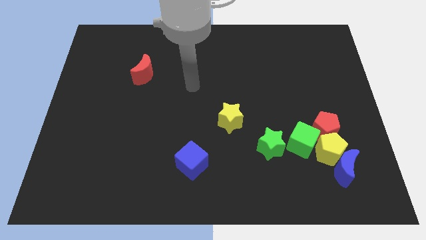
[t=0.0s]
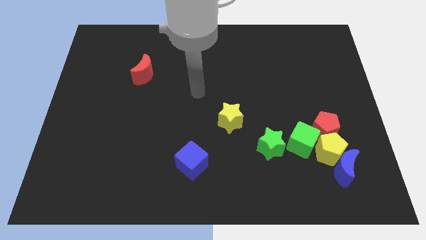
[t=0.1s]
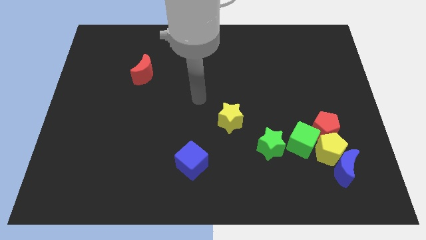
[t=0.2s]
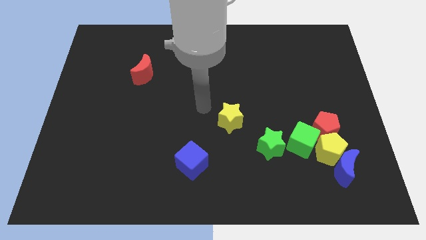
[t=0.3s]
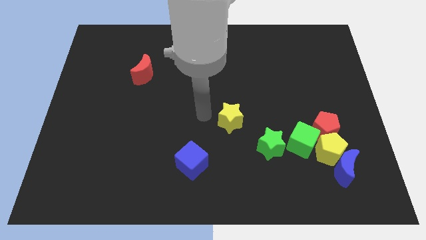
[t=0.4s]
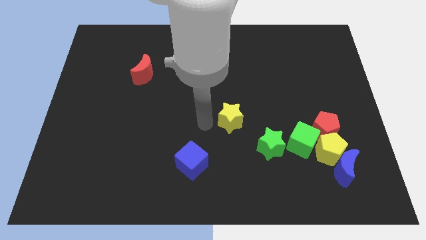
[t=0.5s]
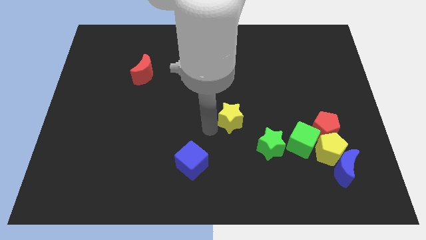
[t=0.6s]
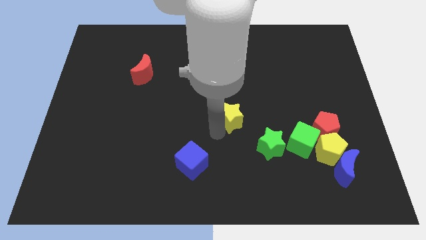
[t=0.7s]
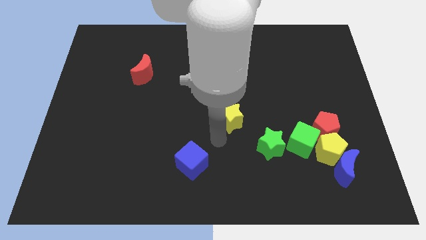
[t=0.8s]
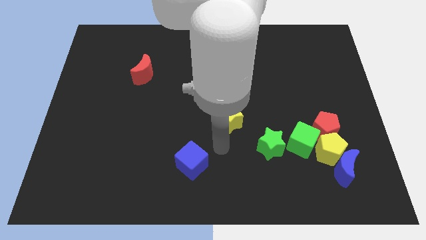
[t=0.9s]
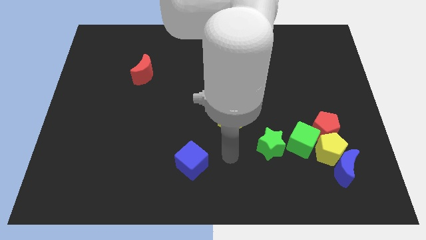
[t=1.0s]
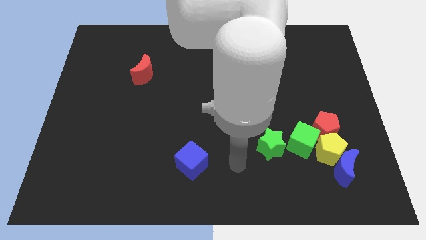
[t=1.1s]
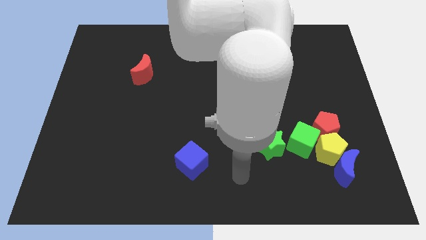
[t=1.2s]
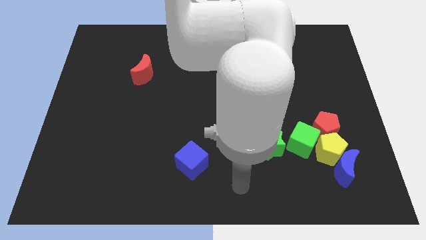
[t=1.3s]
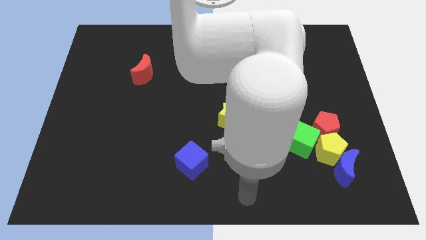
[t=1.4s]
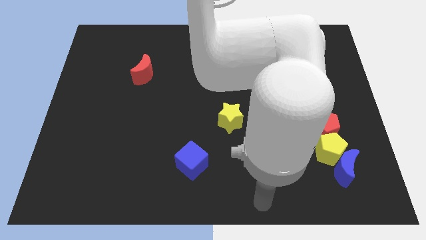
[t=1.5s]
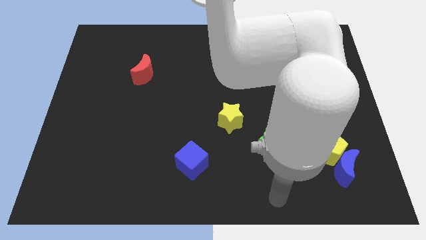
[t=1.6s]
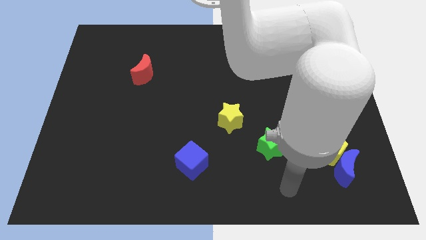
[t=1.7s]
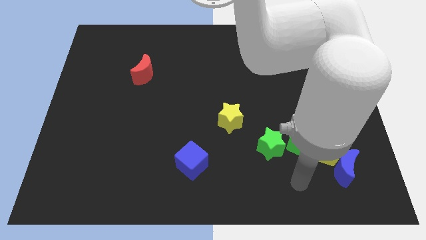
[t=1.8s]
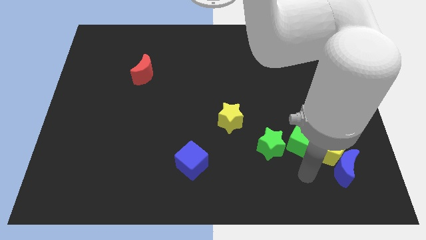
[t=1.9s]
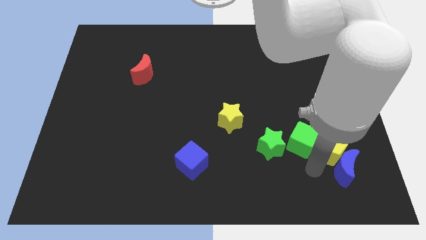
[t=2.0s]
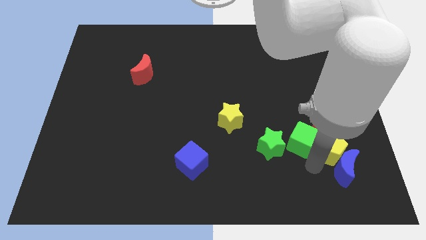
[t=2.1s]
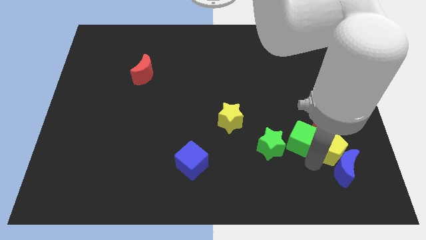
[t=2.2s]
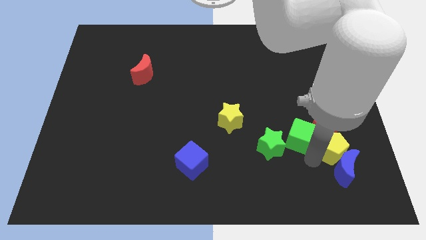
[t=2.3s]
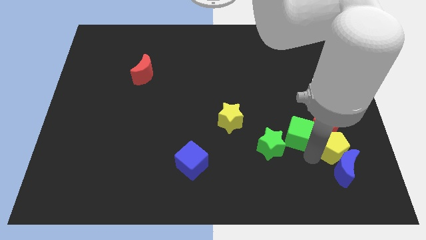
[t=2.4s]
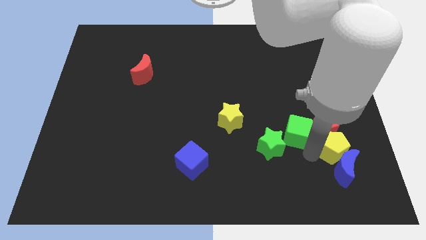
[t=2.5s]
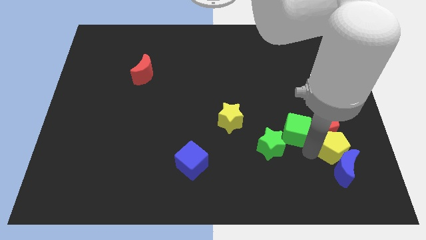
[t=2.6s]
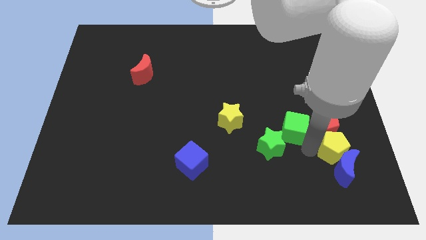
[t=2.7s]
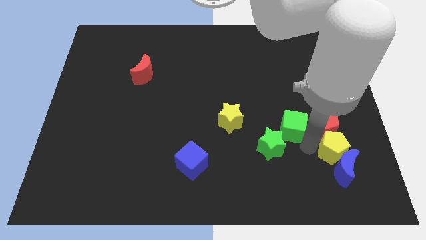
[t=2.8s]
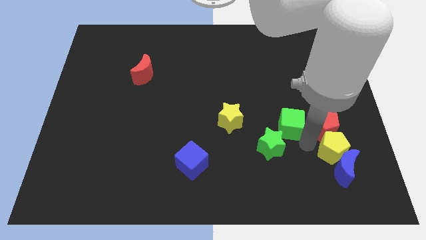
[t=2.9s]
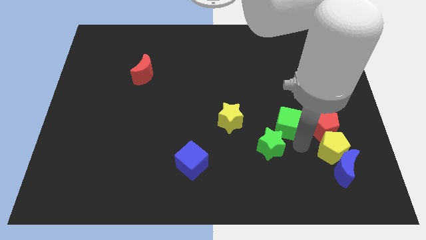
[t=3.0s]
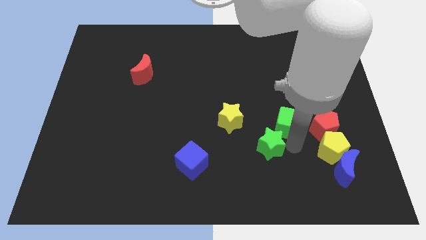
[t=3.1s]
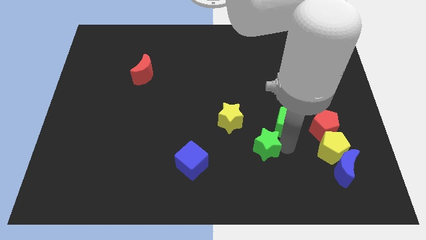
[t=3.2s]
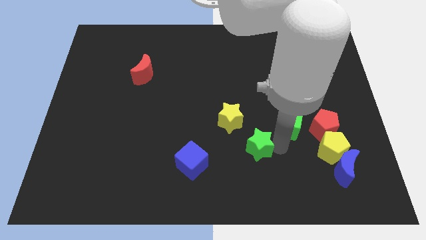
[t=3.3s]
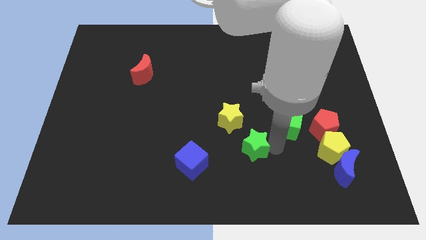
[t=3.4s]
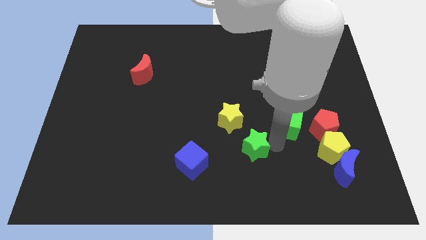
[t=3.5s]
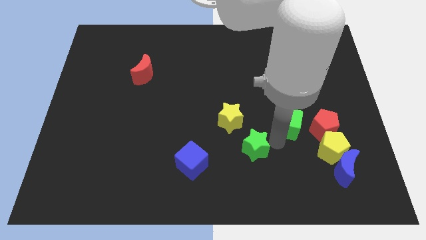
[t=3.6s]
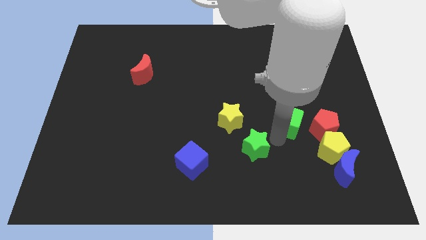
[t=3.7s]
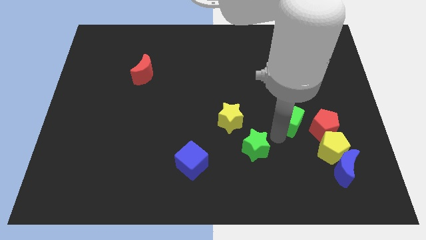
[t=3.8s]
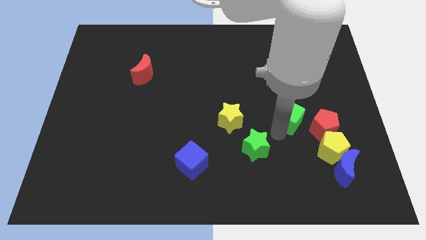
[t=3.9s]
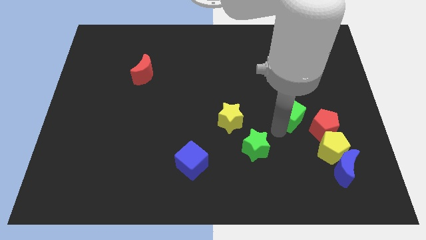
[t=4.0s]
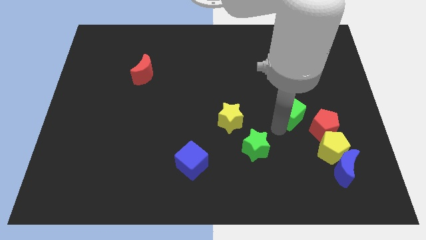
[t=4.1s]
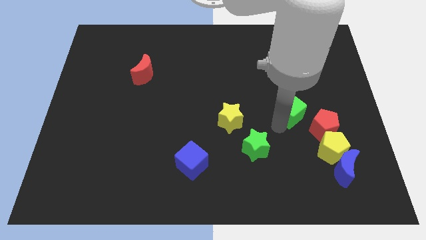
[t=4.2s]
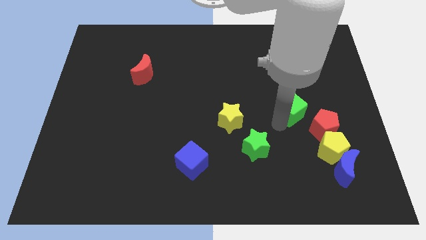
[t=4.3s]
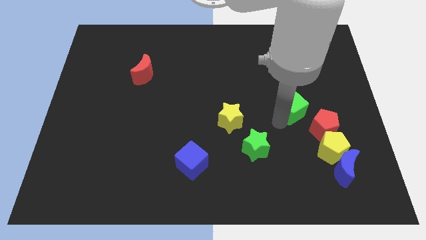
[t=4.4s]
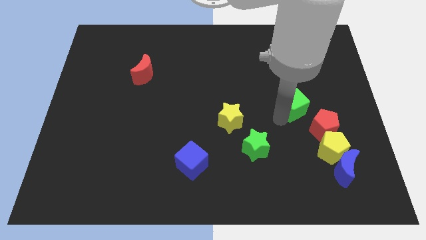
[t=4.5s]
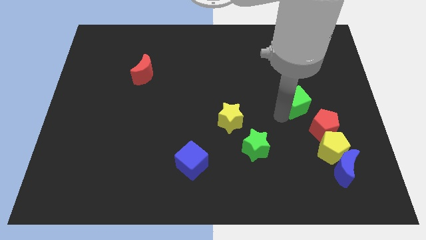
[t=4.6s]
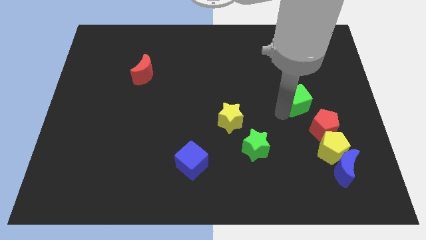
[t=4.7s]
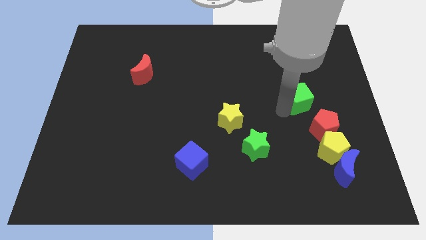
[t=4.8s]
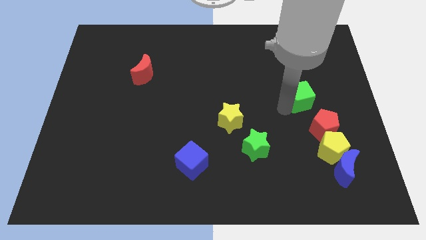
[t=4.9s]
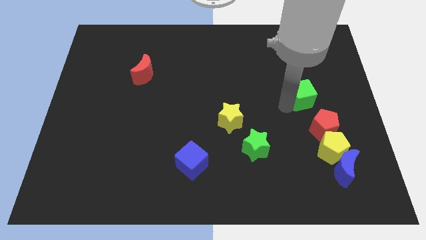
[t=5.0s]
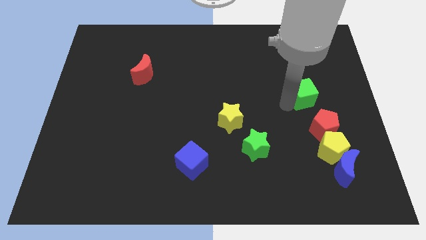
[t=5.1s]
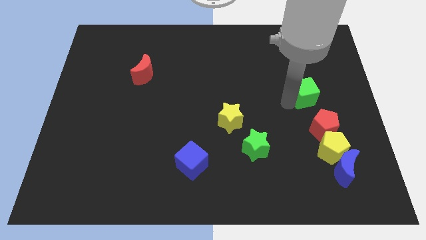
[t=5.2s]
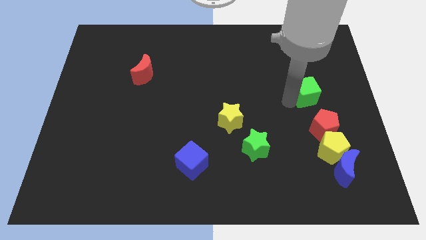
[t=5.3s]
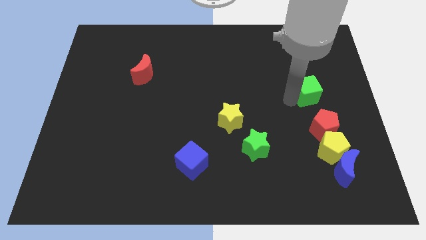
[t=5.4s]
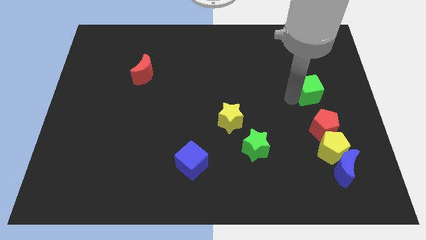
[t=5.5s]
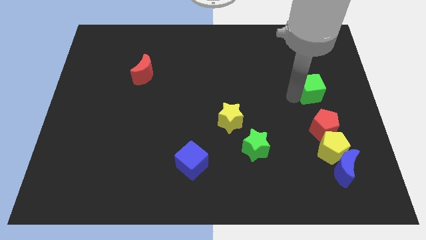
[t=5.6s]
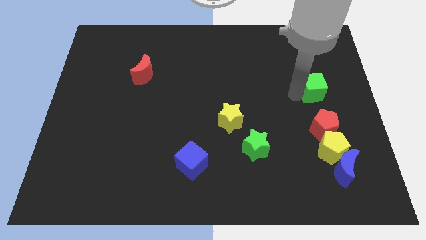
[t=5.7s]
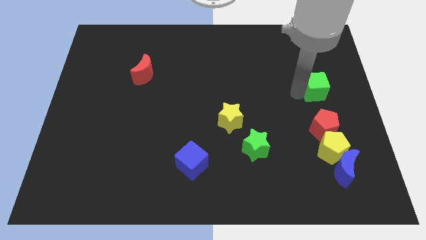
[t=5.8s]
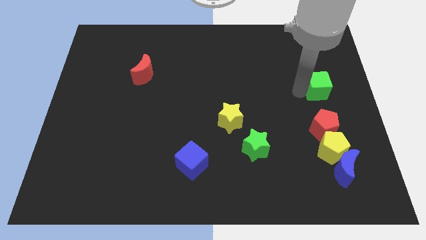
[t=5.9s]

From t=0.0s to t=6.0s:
put the green cube to the right side of the board

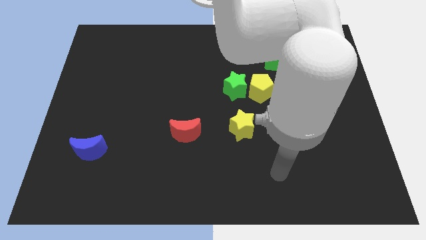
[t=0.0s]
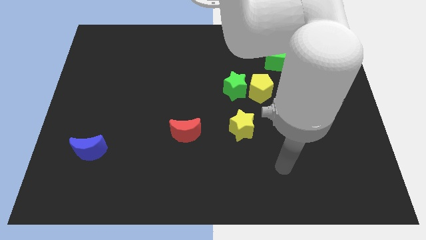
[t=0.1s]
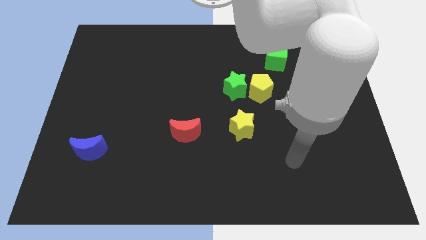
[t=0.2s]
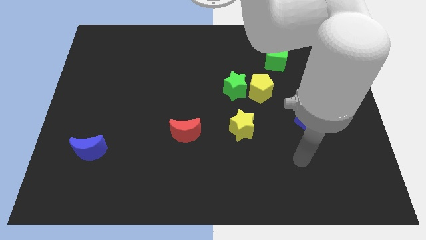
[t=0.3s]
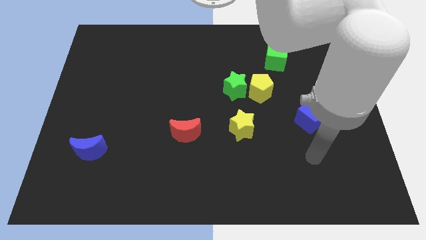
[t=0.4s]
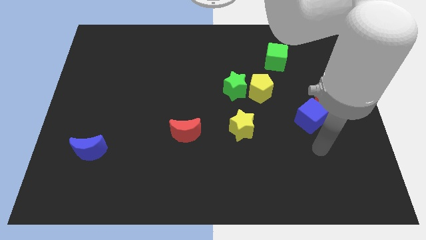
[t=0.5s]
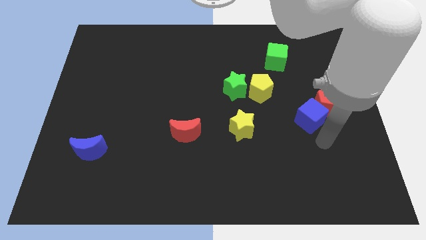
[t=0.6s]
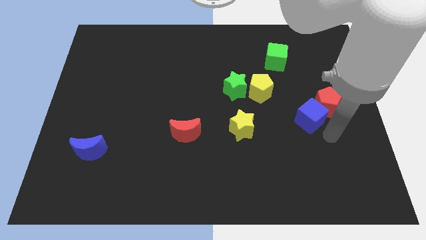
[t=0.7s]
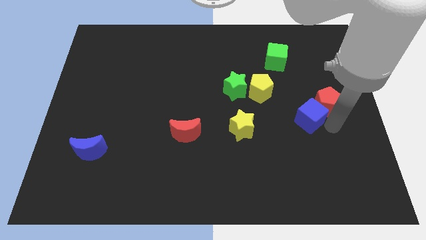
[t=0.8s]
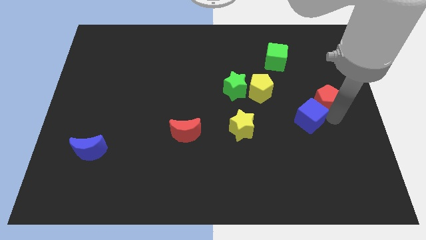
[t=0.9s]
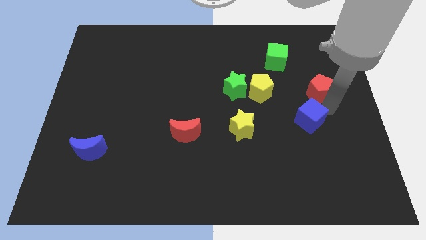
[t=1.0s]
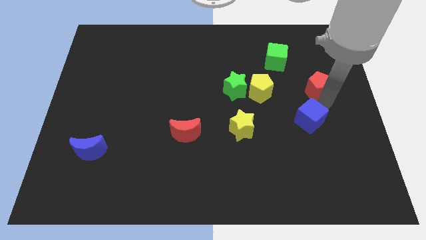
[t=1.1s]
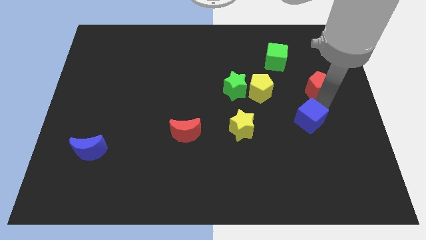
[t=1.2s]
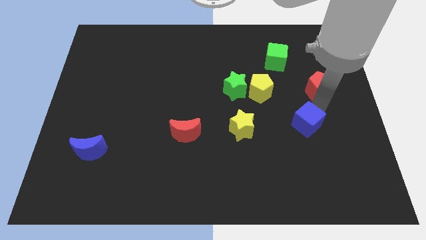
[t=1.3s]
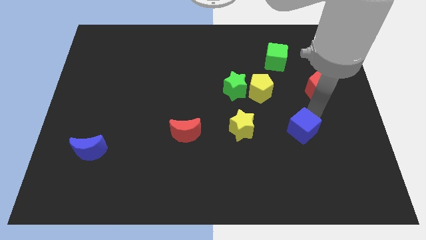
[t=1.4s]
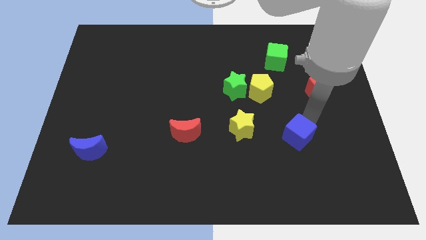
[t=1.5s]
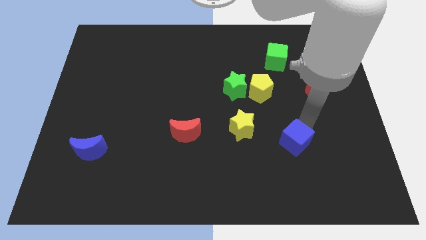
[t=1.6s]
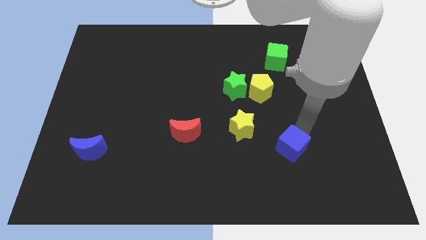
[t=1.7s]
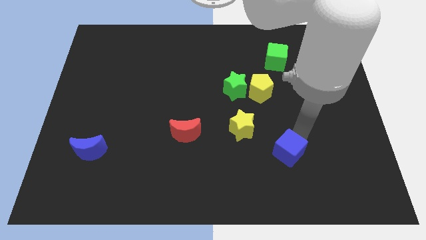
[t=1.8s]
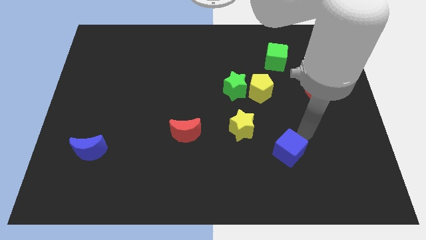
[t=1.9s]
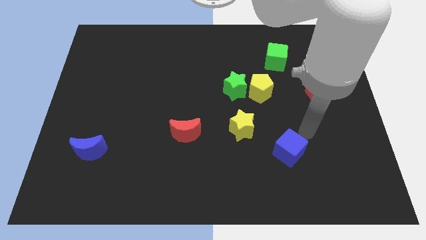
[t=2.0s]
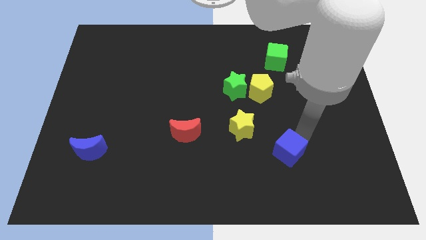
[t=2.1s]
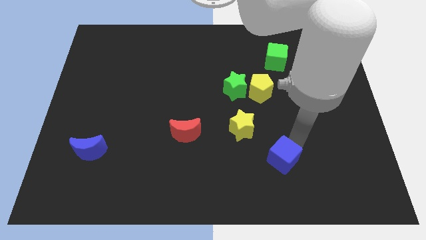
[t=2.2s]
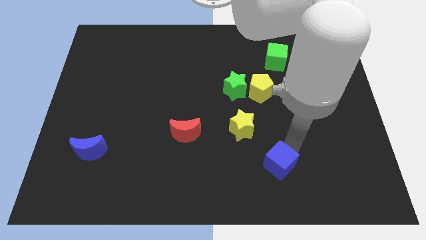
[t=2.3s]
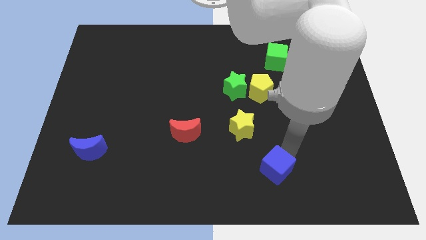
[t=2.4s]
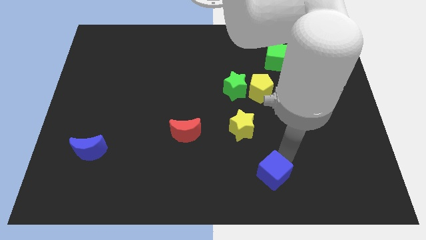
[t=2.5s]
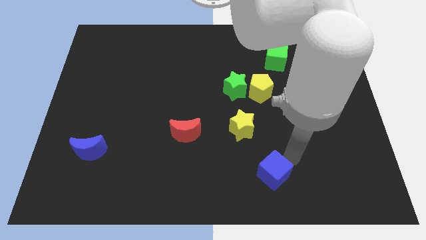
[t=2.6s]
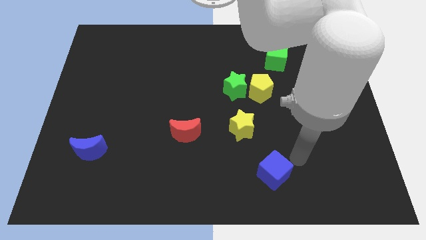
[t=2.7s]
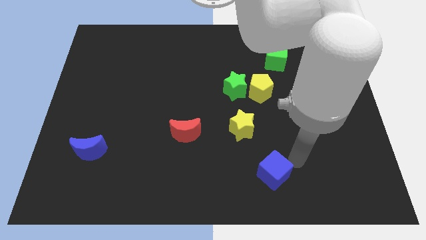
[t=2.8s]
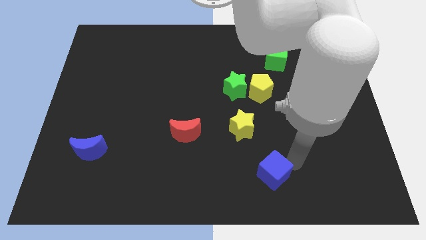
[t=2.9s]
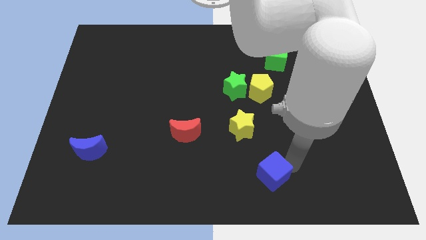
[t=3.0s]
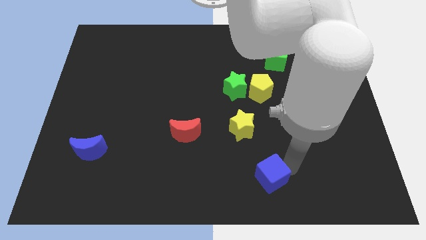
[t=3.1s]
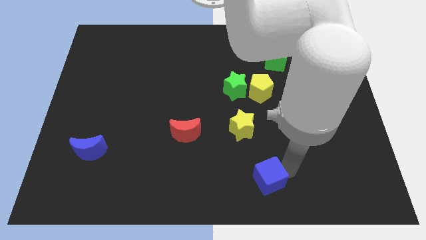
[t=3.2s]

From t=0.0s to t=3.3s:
put the blue cube to the bottom
